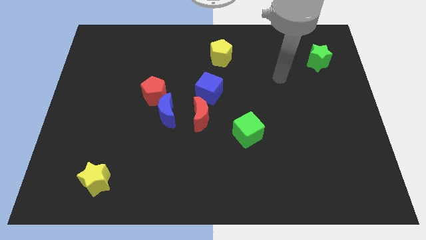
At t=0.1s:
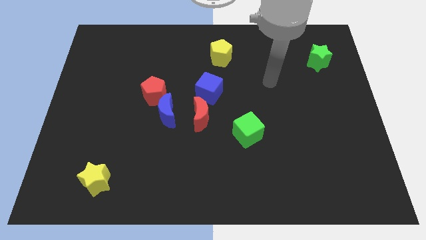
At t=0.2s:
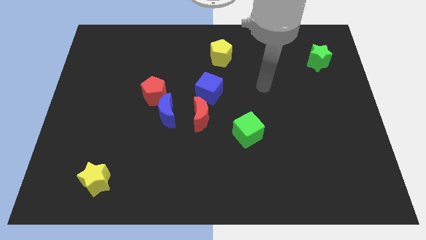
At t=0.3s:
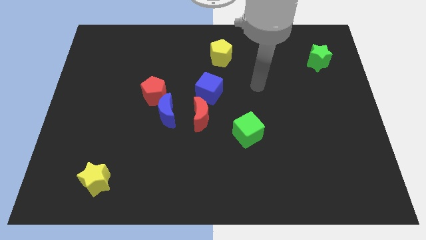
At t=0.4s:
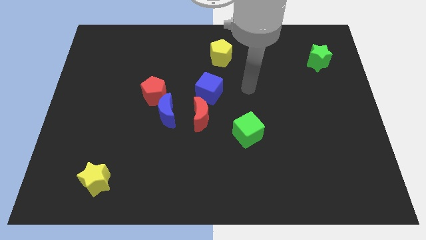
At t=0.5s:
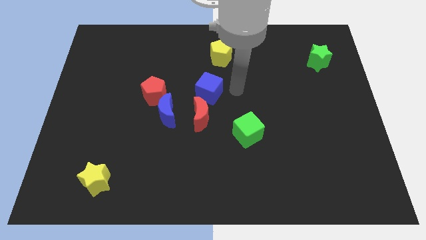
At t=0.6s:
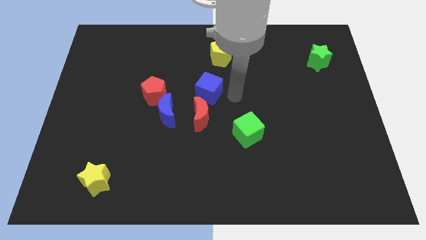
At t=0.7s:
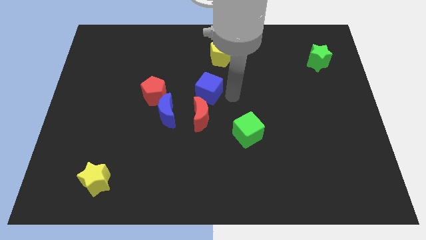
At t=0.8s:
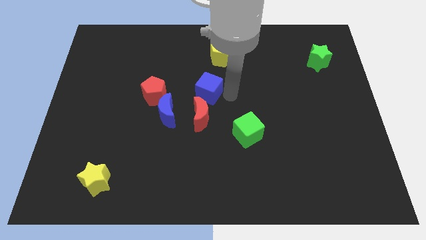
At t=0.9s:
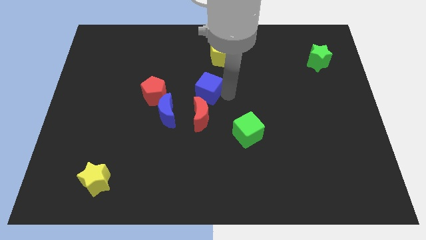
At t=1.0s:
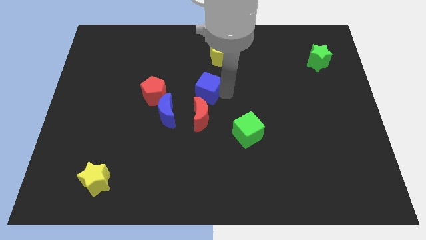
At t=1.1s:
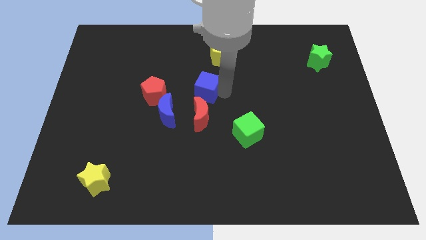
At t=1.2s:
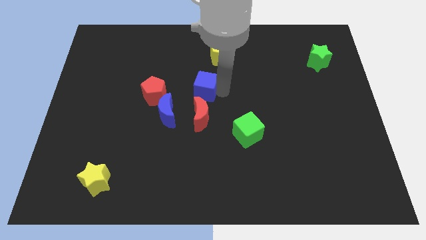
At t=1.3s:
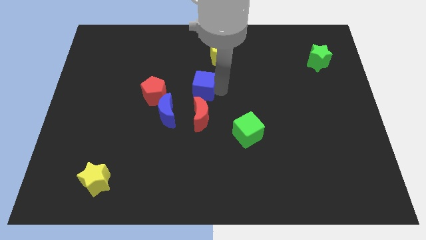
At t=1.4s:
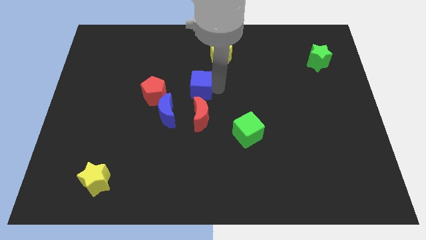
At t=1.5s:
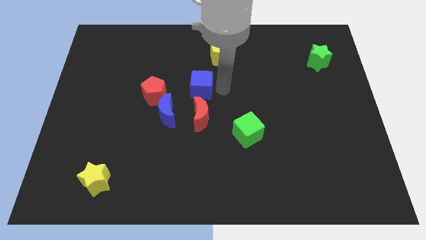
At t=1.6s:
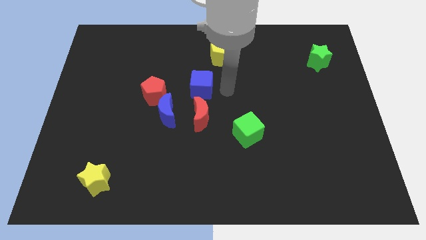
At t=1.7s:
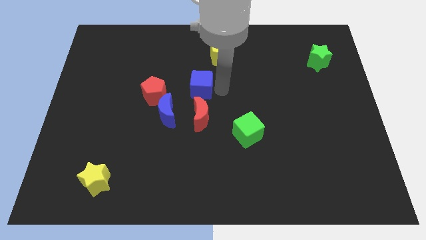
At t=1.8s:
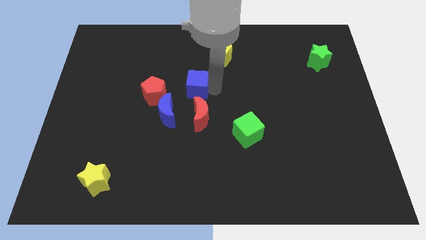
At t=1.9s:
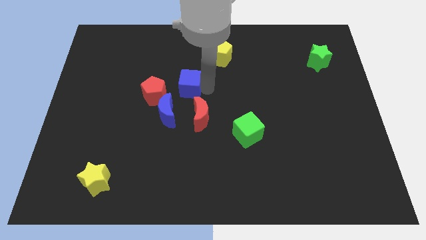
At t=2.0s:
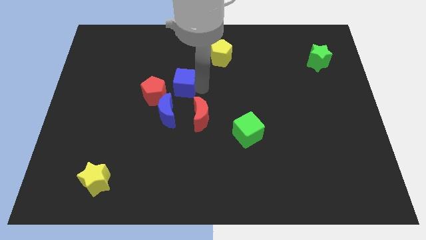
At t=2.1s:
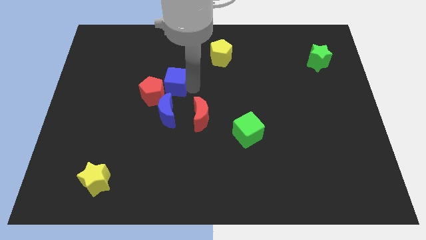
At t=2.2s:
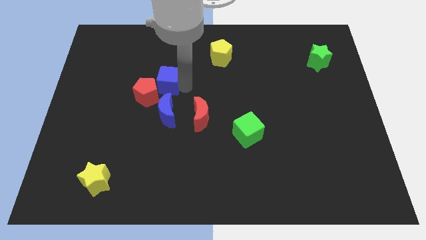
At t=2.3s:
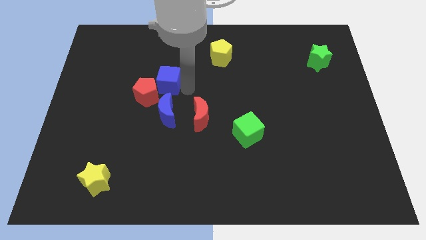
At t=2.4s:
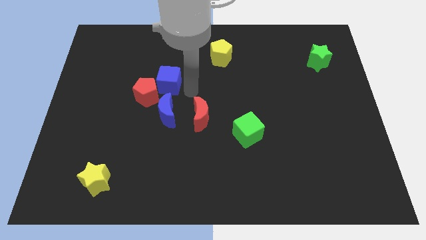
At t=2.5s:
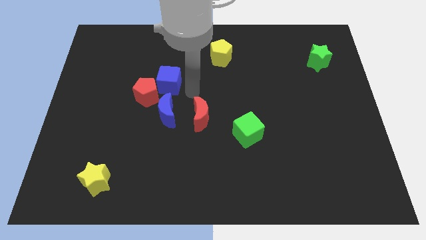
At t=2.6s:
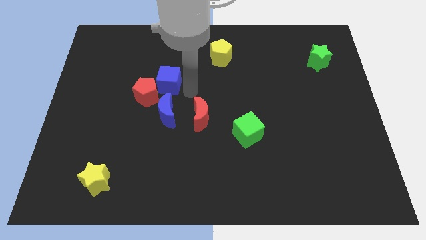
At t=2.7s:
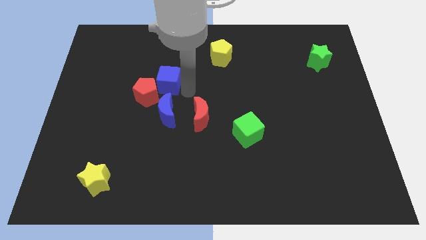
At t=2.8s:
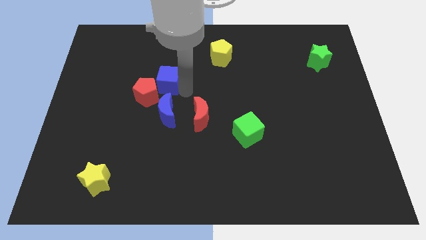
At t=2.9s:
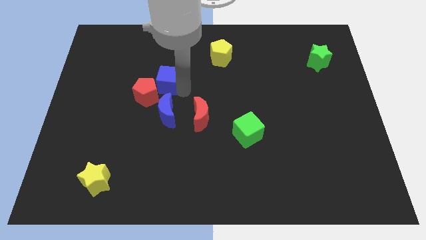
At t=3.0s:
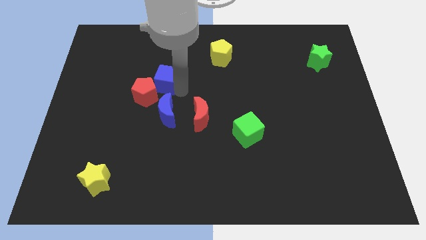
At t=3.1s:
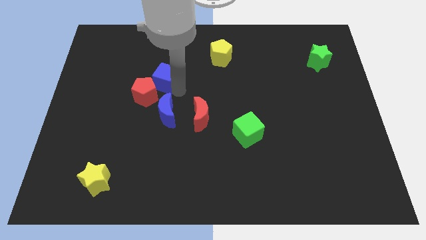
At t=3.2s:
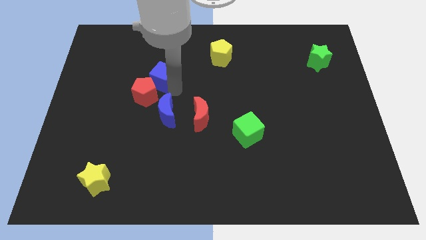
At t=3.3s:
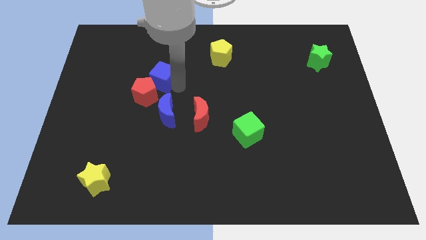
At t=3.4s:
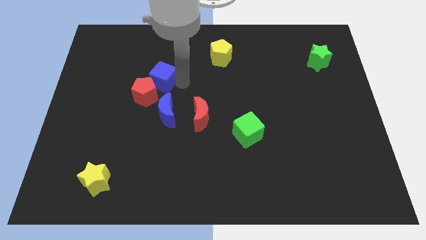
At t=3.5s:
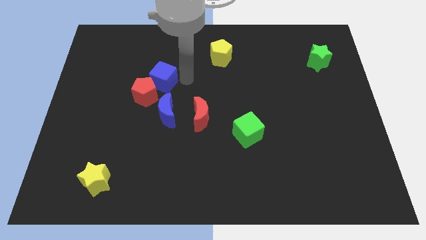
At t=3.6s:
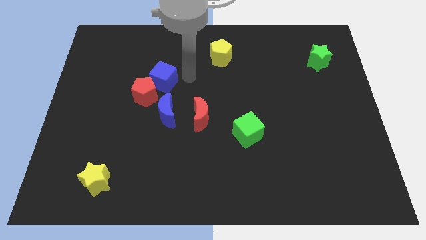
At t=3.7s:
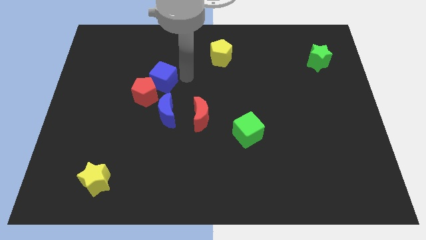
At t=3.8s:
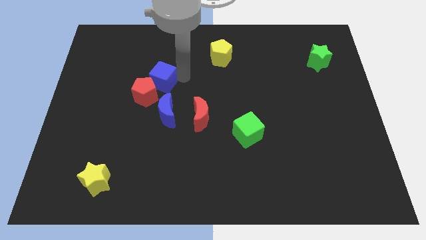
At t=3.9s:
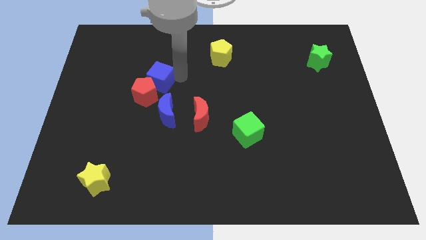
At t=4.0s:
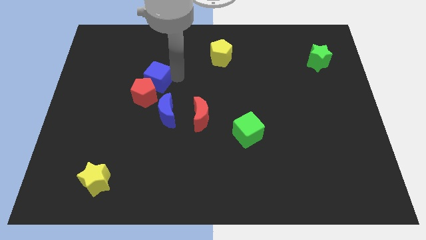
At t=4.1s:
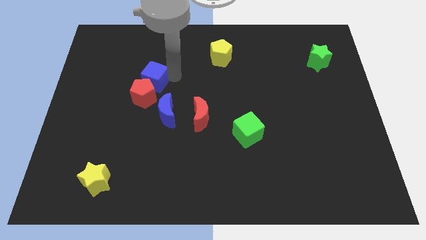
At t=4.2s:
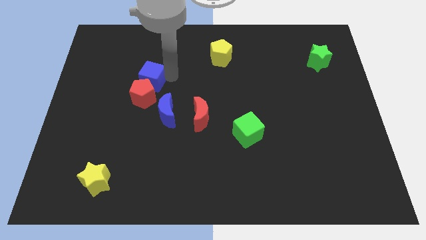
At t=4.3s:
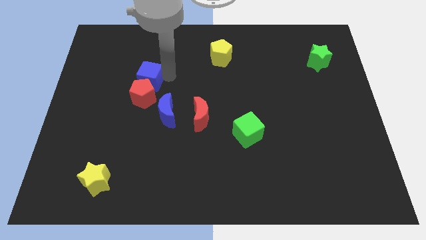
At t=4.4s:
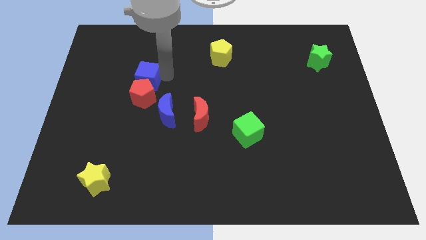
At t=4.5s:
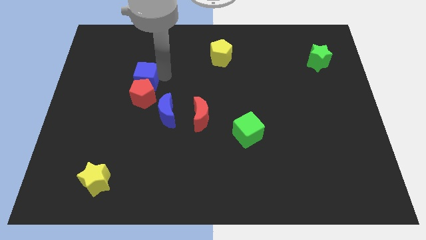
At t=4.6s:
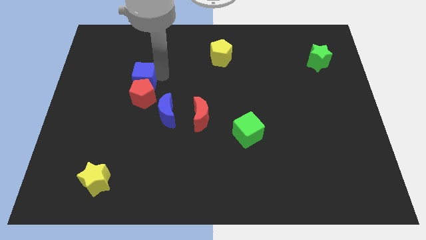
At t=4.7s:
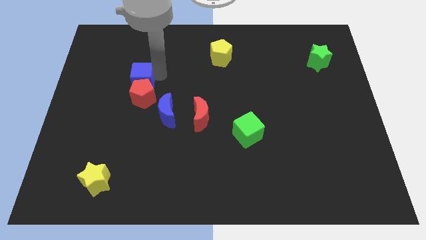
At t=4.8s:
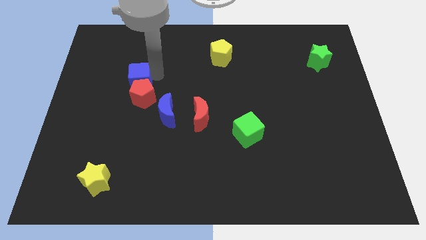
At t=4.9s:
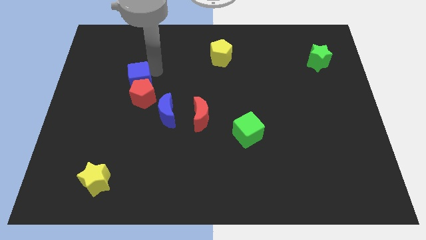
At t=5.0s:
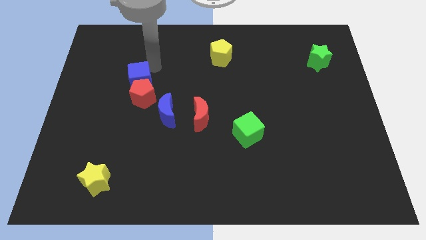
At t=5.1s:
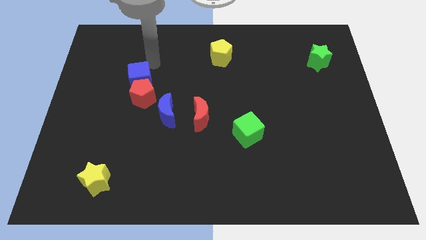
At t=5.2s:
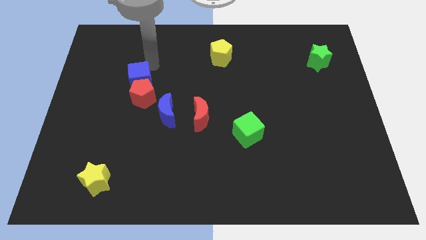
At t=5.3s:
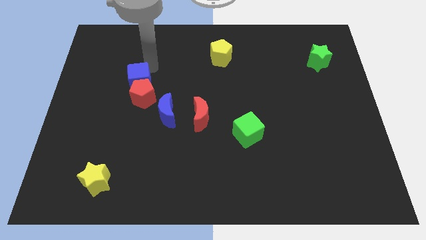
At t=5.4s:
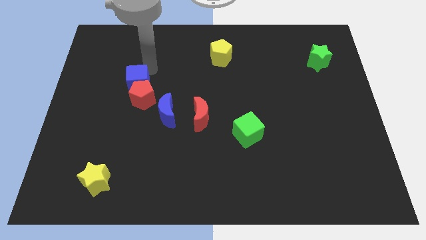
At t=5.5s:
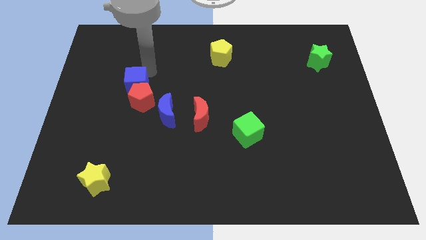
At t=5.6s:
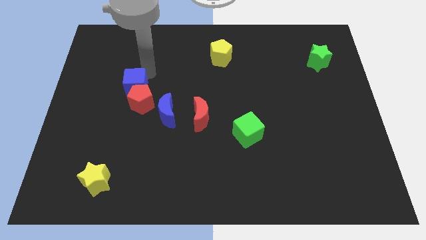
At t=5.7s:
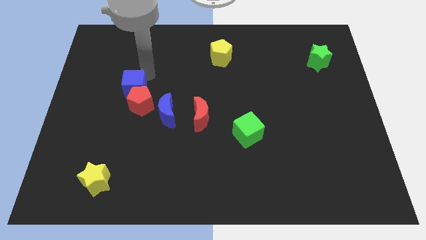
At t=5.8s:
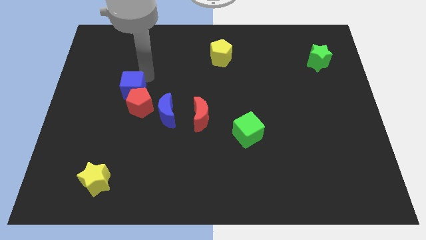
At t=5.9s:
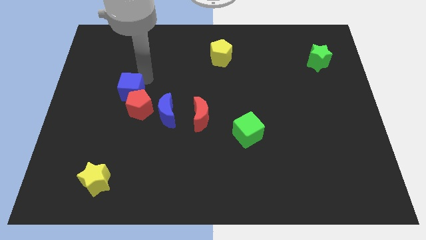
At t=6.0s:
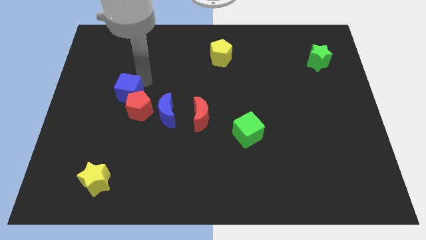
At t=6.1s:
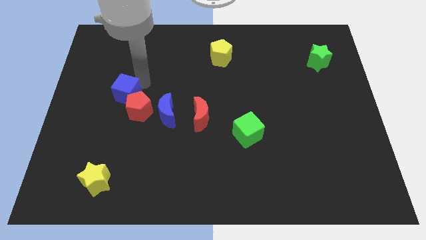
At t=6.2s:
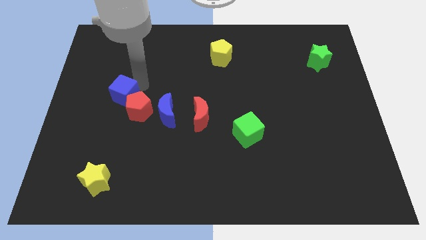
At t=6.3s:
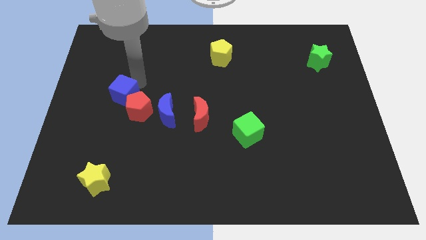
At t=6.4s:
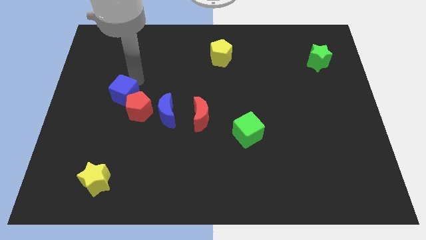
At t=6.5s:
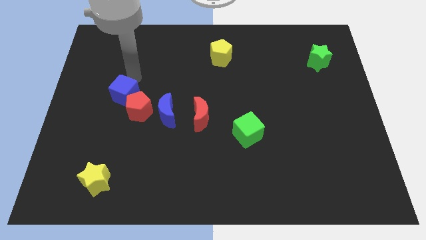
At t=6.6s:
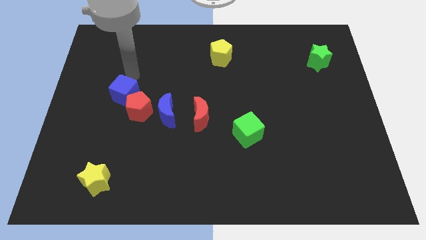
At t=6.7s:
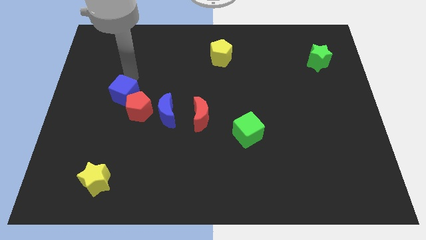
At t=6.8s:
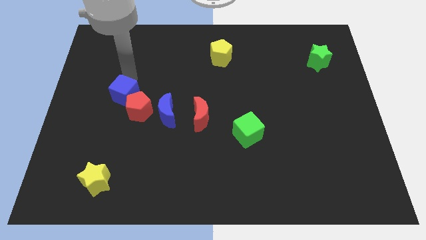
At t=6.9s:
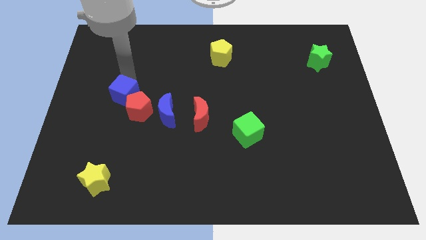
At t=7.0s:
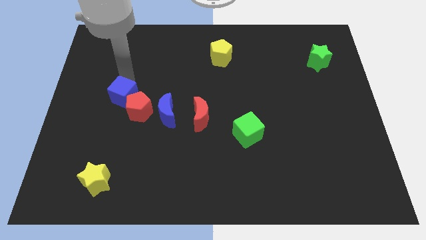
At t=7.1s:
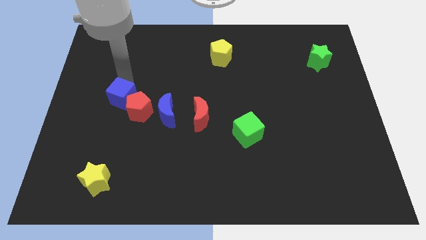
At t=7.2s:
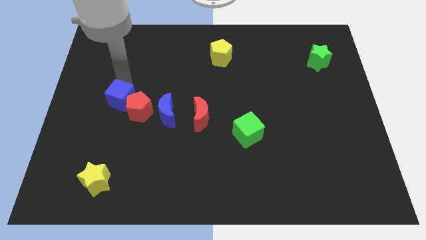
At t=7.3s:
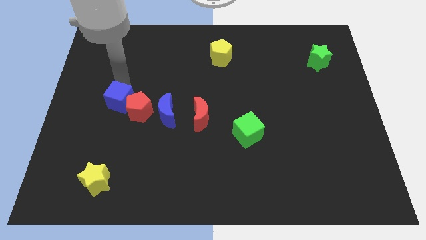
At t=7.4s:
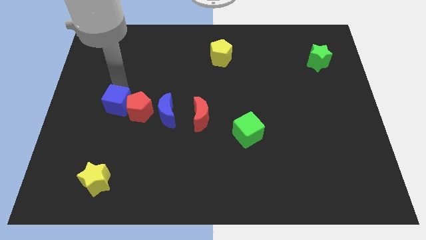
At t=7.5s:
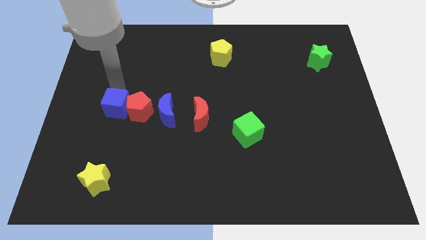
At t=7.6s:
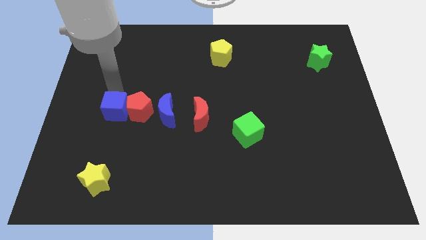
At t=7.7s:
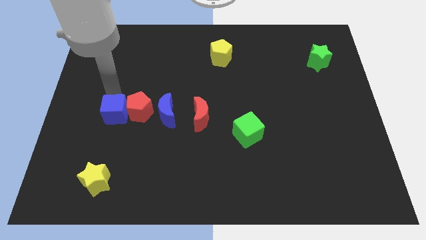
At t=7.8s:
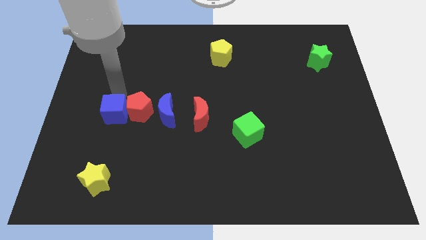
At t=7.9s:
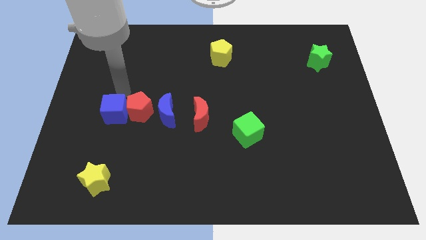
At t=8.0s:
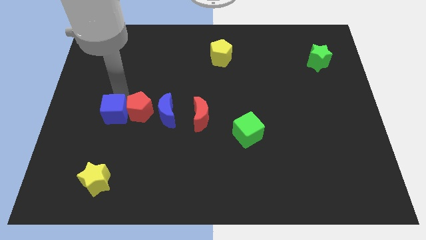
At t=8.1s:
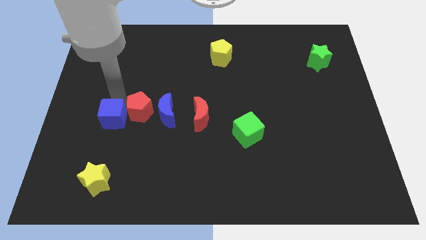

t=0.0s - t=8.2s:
push the blue cube above the yellow star
